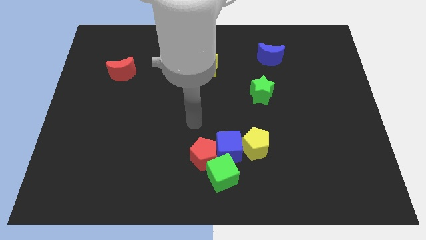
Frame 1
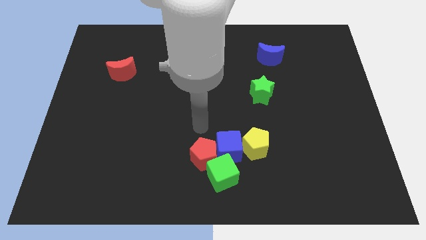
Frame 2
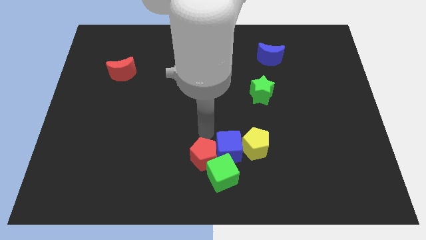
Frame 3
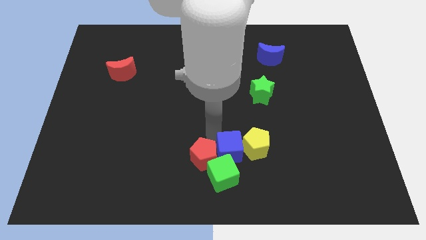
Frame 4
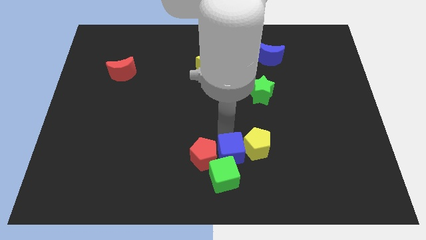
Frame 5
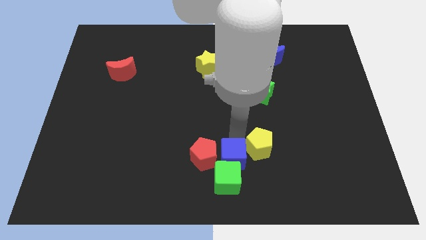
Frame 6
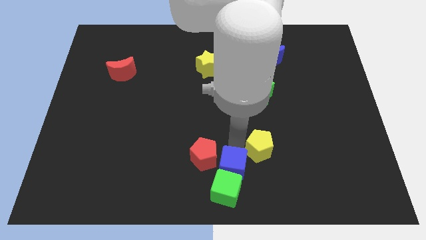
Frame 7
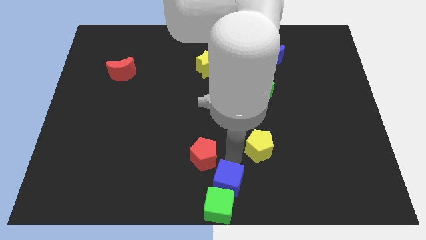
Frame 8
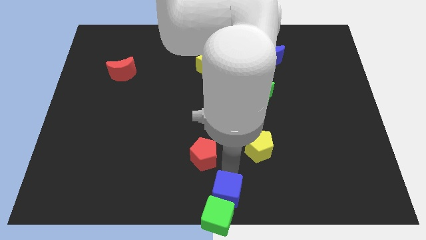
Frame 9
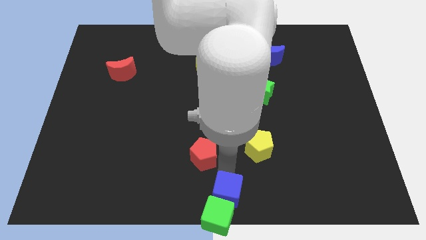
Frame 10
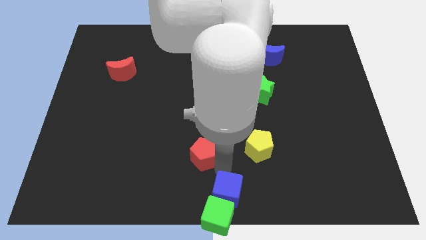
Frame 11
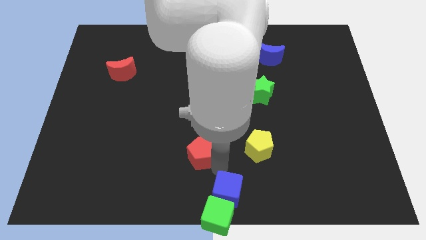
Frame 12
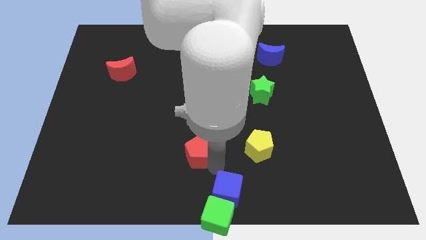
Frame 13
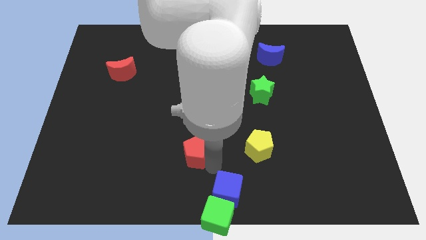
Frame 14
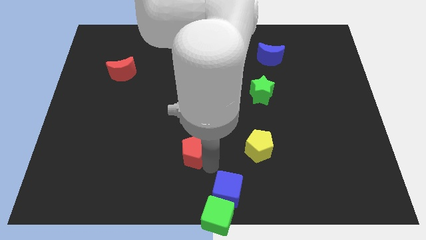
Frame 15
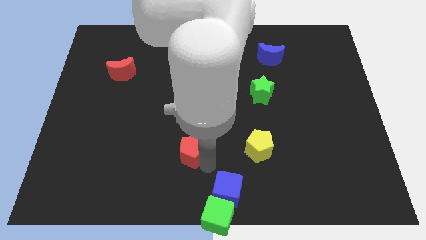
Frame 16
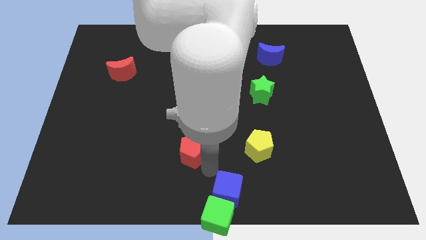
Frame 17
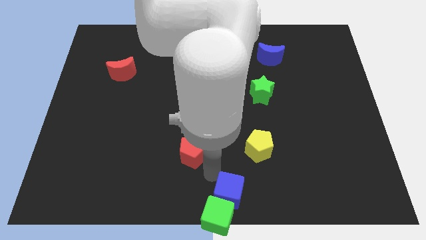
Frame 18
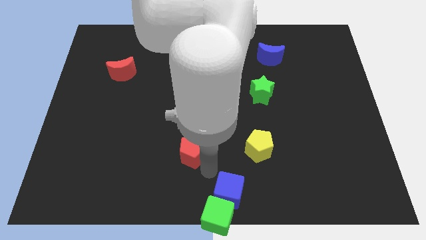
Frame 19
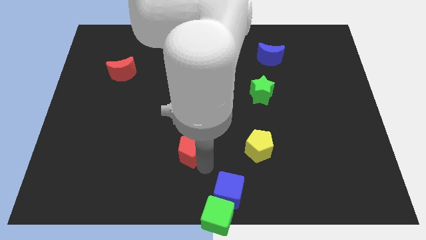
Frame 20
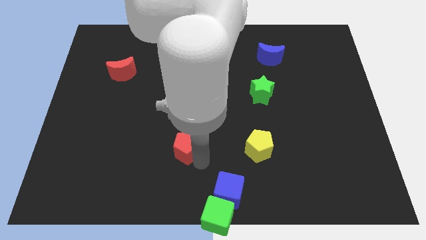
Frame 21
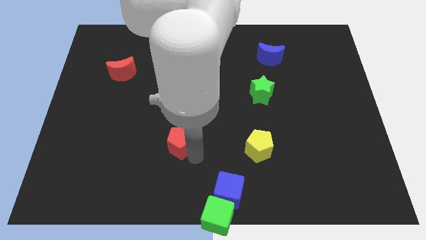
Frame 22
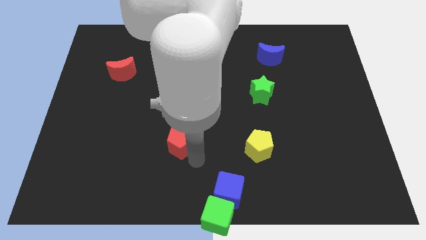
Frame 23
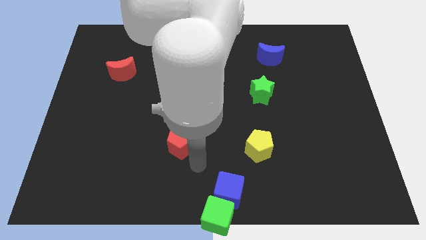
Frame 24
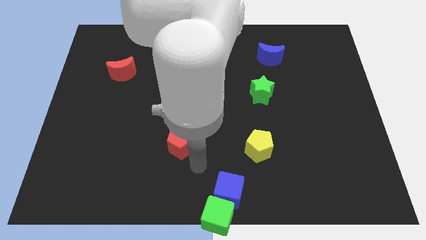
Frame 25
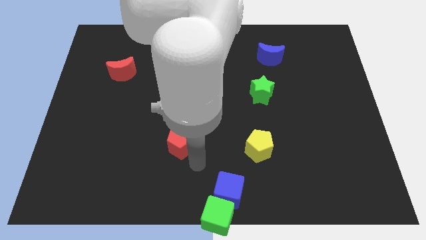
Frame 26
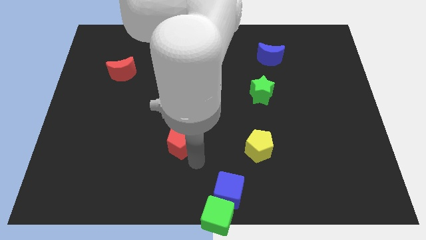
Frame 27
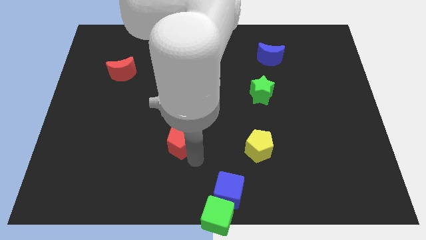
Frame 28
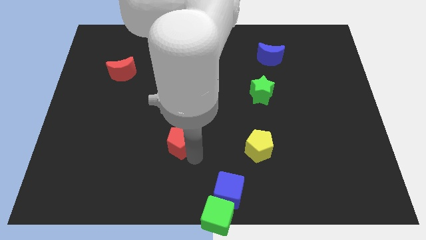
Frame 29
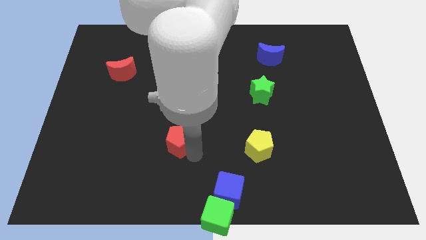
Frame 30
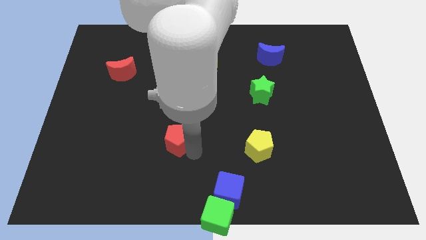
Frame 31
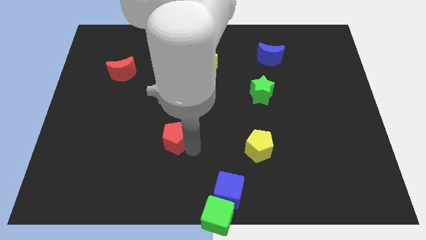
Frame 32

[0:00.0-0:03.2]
push the red pentagon up and to the left a little bit

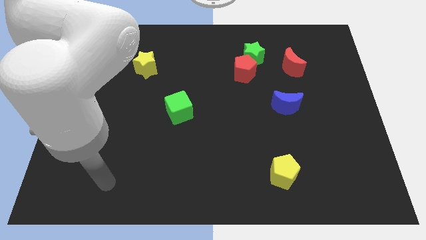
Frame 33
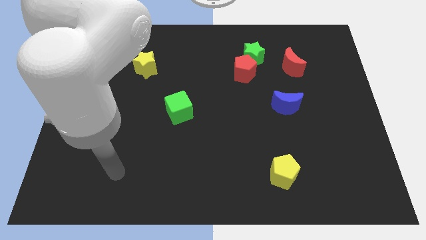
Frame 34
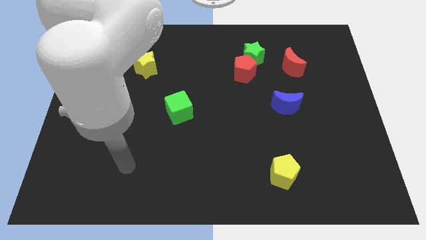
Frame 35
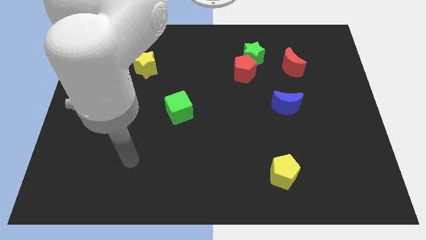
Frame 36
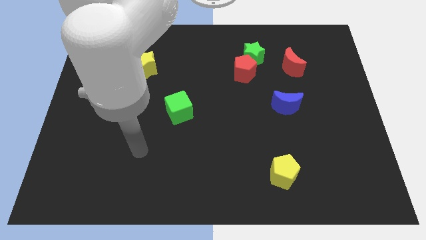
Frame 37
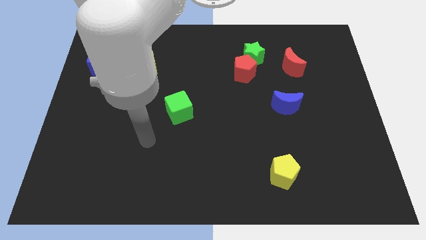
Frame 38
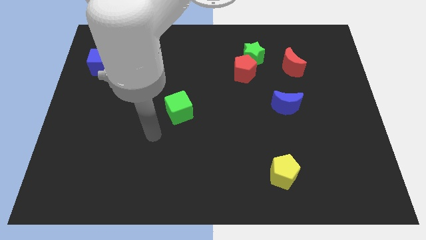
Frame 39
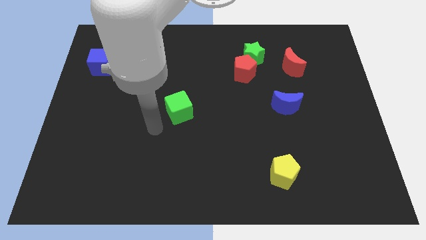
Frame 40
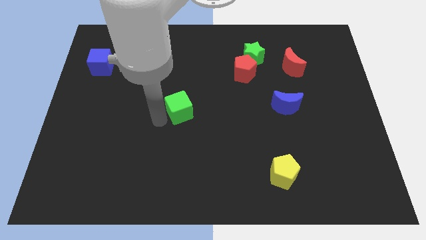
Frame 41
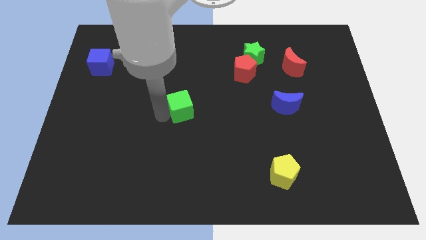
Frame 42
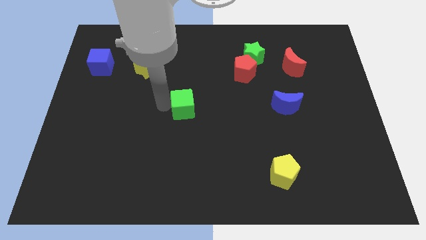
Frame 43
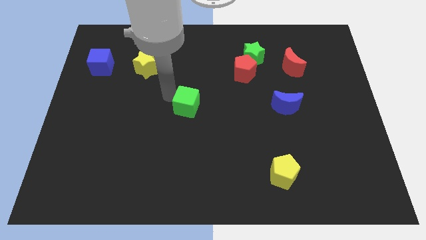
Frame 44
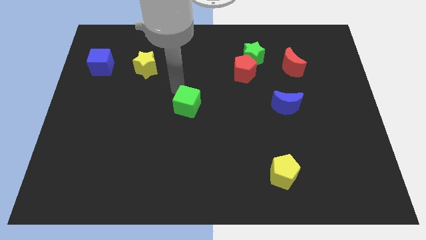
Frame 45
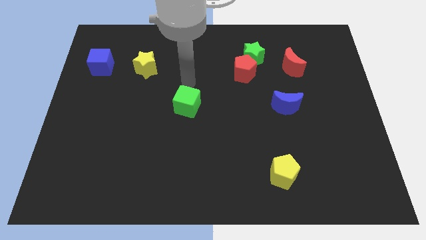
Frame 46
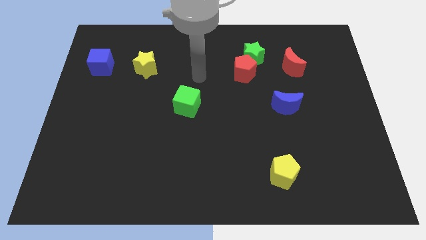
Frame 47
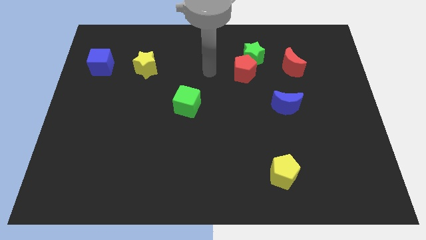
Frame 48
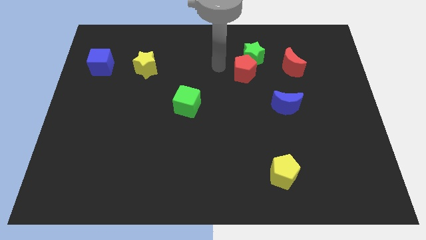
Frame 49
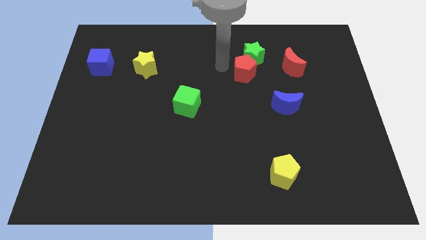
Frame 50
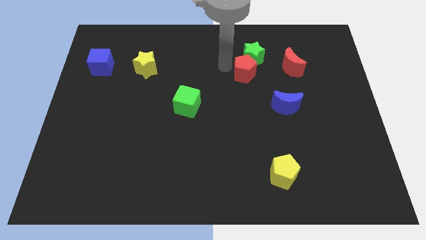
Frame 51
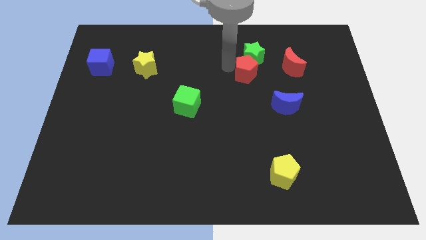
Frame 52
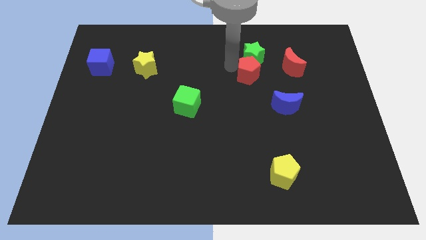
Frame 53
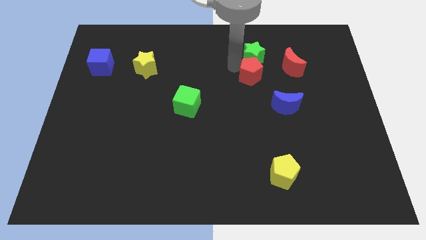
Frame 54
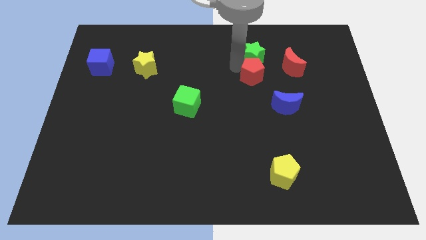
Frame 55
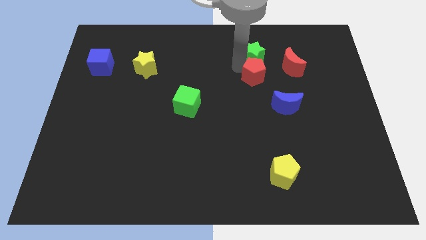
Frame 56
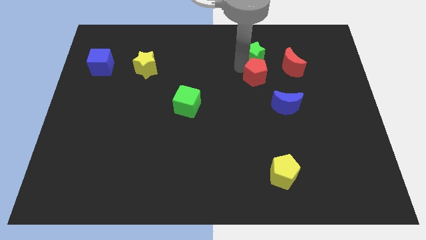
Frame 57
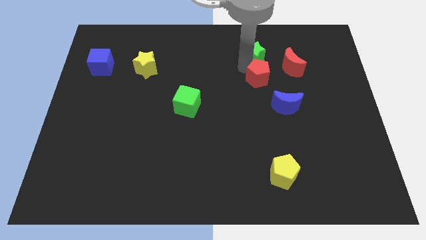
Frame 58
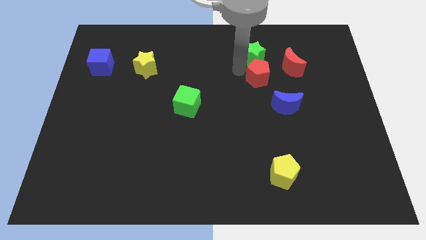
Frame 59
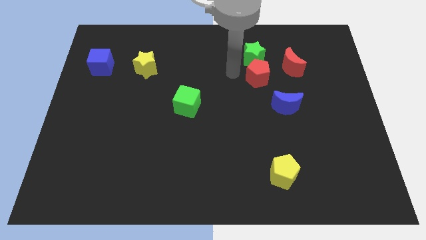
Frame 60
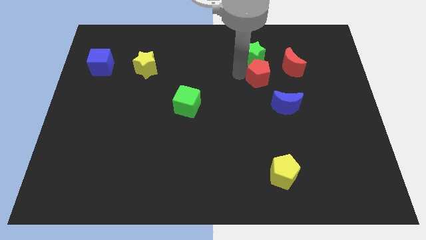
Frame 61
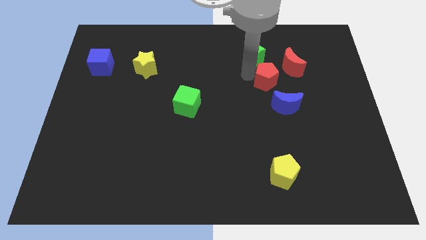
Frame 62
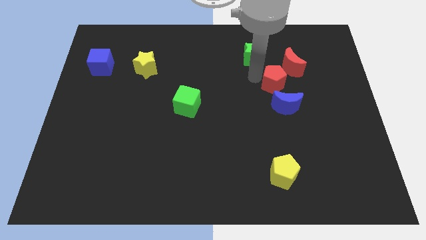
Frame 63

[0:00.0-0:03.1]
slide the red pentagon somewhat to the right

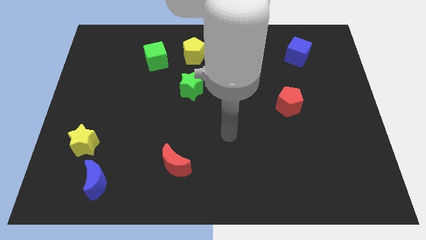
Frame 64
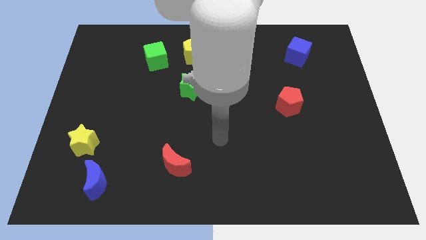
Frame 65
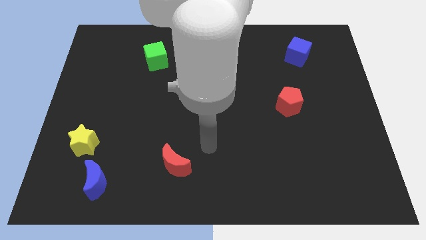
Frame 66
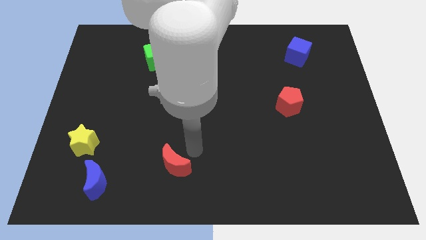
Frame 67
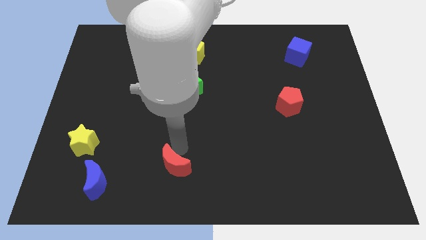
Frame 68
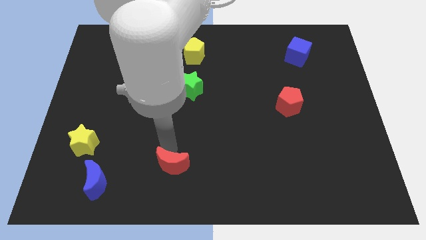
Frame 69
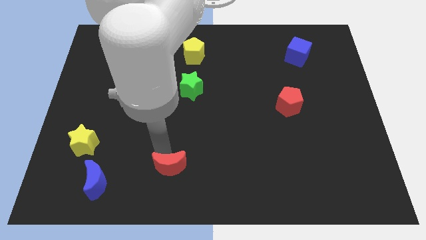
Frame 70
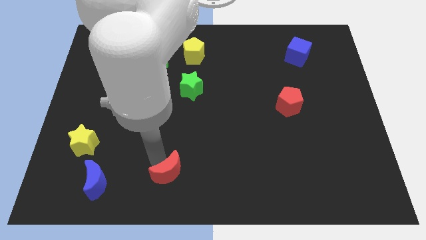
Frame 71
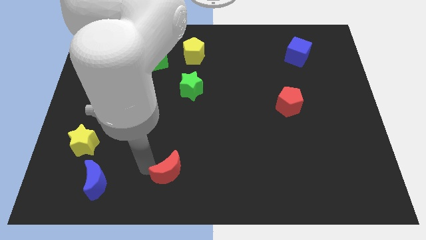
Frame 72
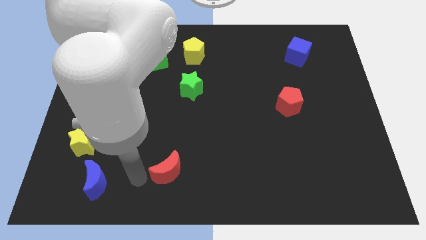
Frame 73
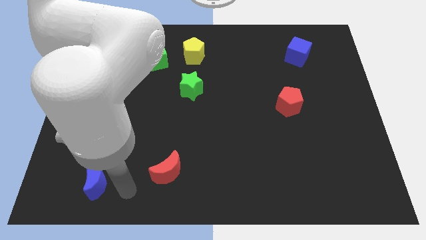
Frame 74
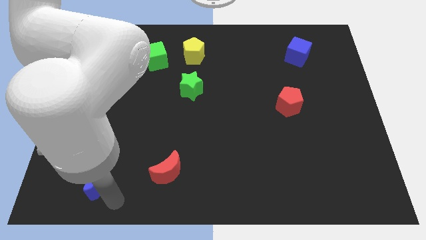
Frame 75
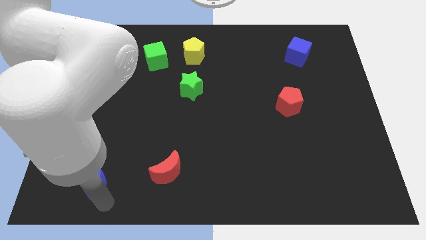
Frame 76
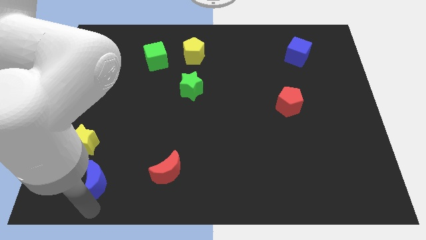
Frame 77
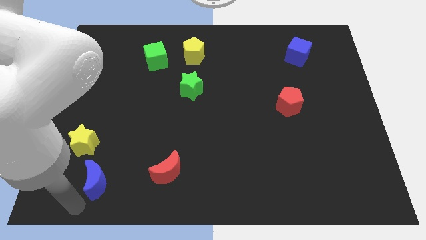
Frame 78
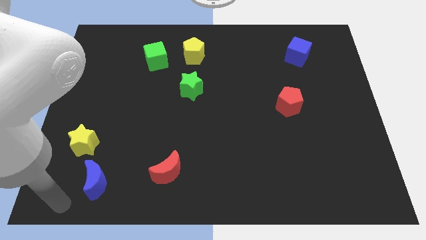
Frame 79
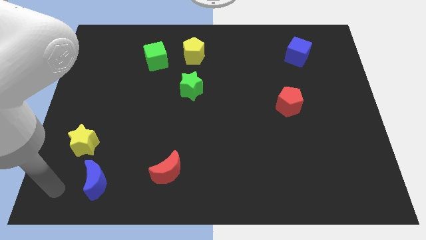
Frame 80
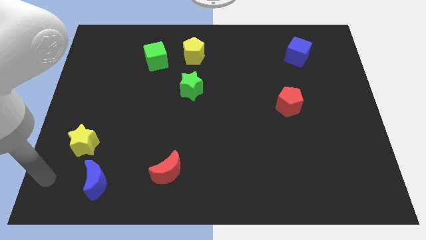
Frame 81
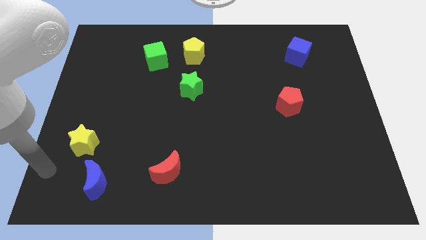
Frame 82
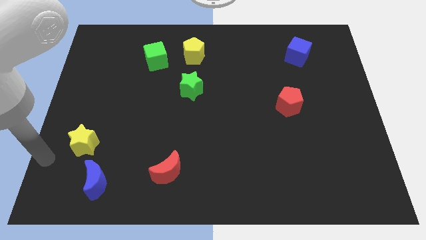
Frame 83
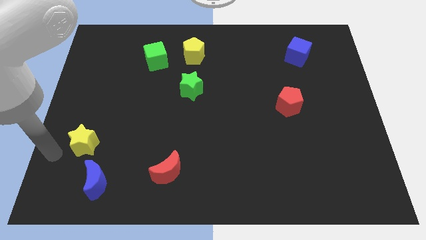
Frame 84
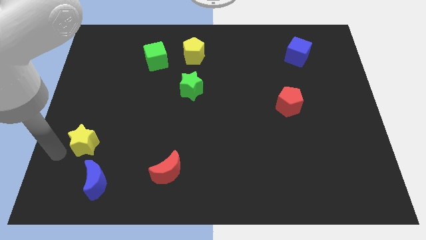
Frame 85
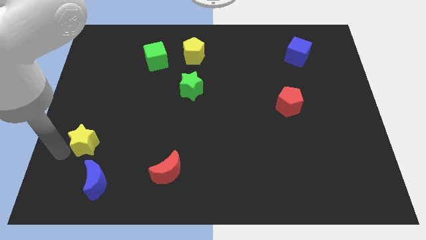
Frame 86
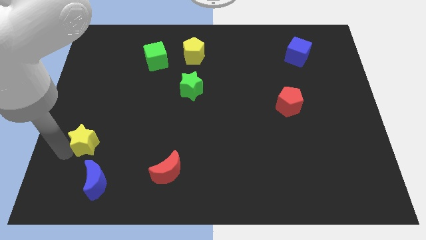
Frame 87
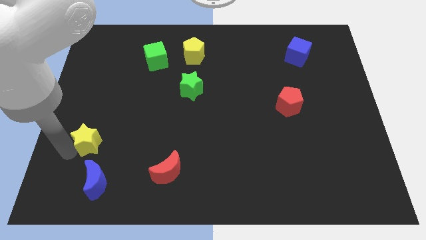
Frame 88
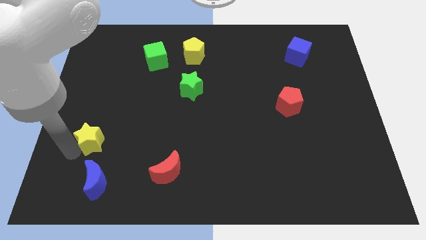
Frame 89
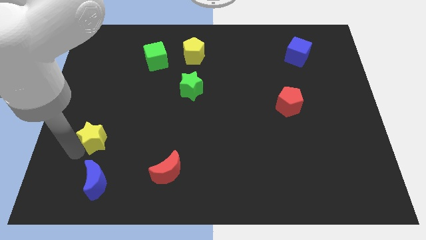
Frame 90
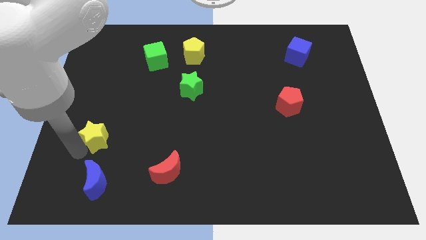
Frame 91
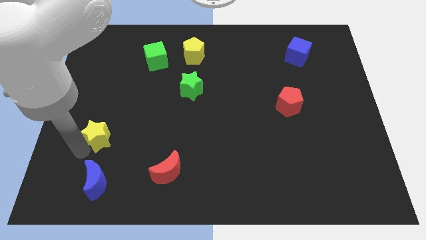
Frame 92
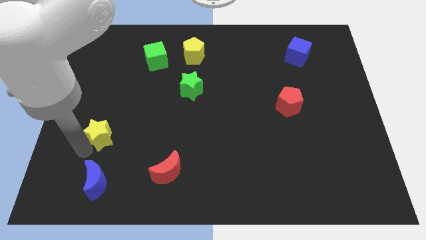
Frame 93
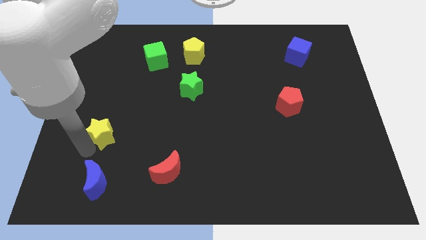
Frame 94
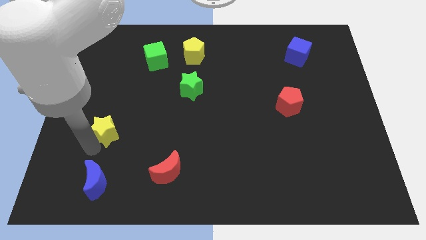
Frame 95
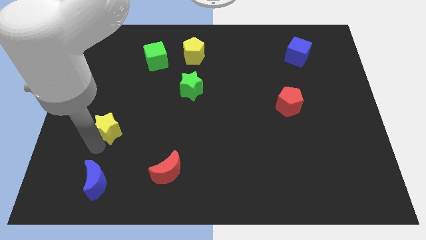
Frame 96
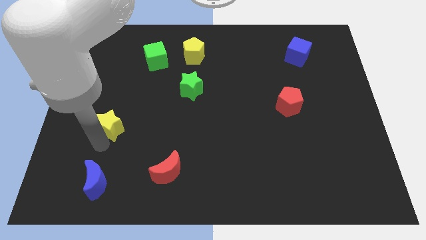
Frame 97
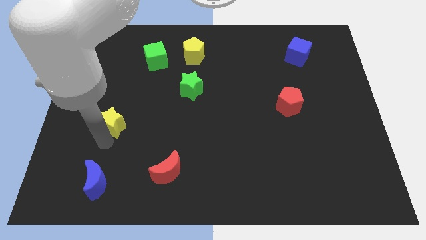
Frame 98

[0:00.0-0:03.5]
slide the yellow star upwards and to the right diagonally somewhat
